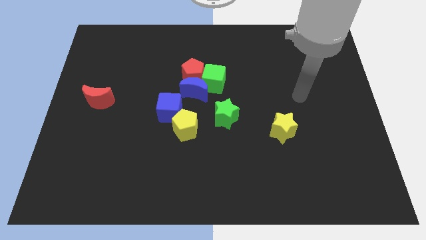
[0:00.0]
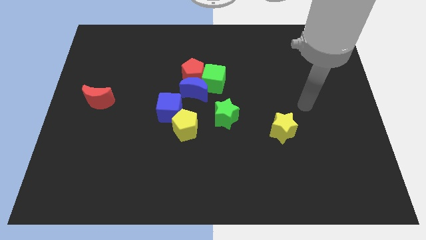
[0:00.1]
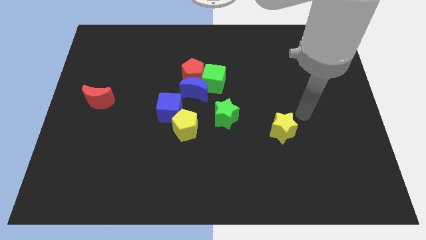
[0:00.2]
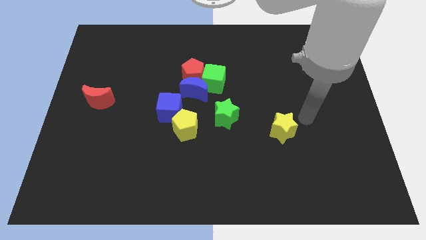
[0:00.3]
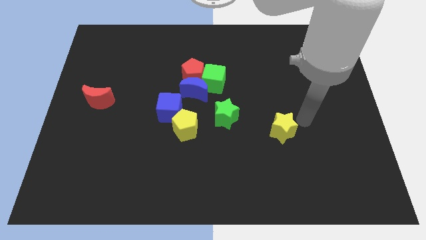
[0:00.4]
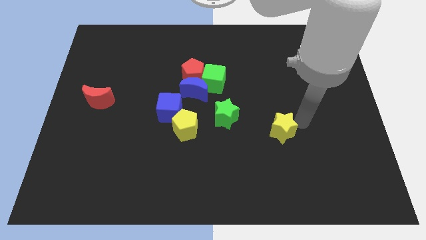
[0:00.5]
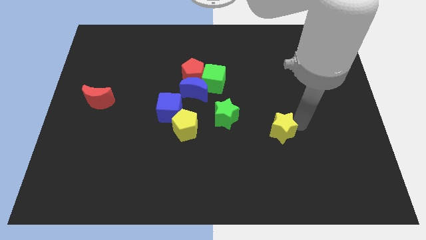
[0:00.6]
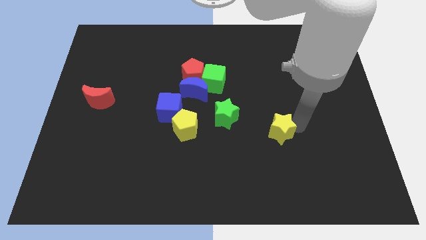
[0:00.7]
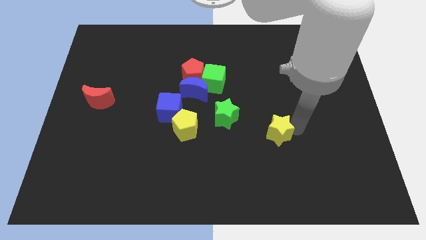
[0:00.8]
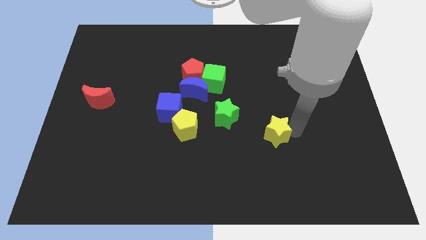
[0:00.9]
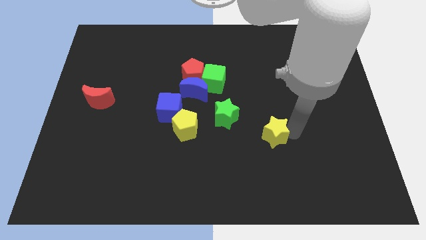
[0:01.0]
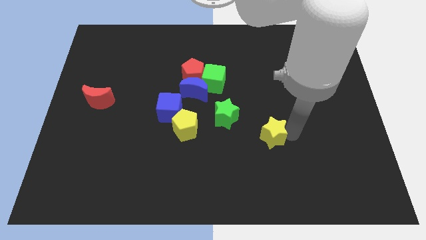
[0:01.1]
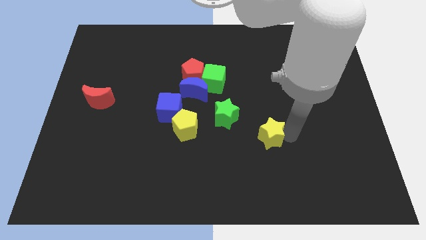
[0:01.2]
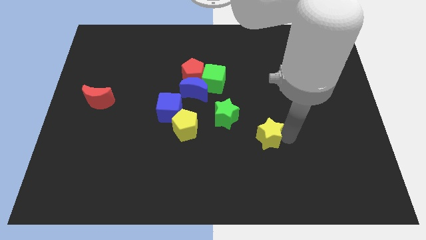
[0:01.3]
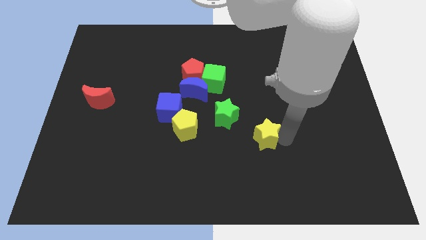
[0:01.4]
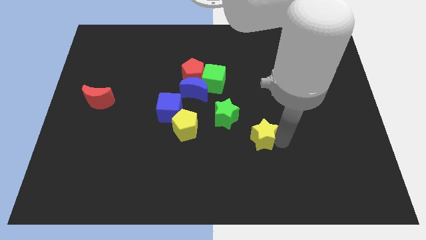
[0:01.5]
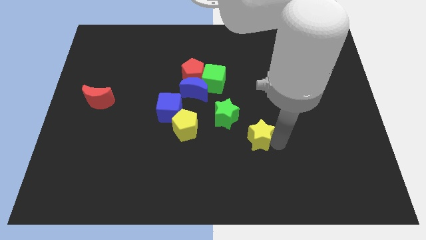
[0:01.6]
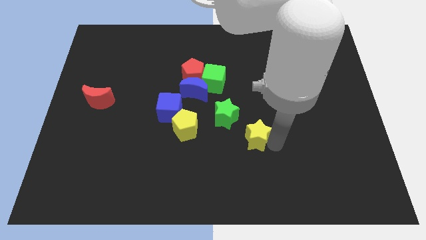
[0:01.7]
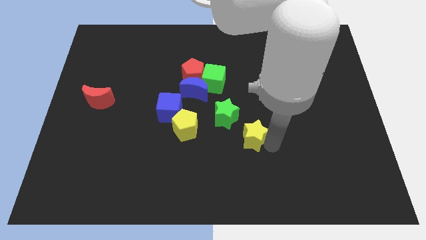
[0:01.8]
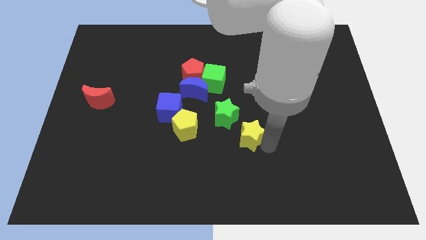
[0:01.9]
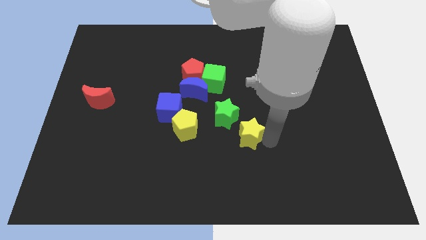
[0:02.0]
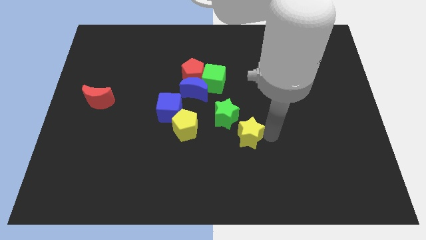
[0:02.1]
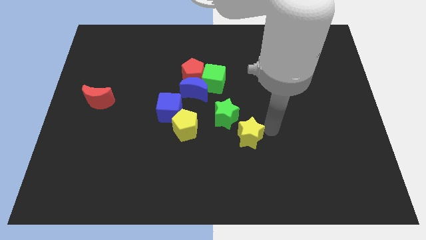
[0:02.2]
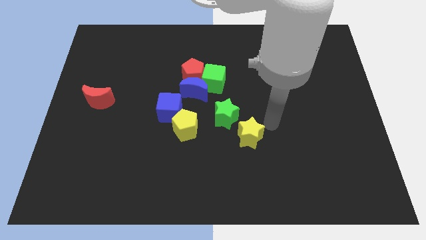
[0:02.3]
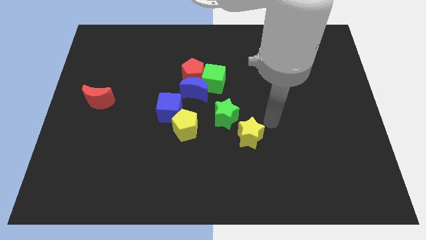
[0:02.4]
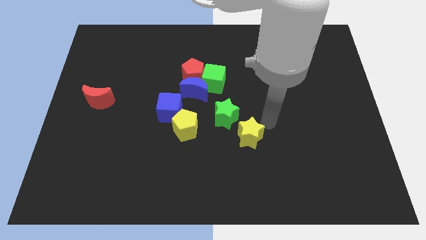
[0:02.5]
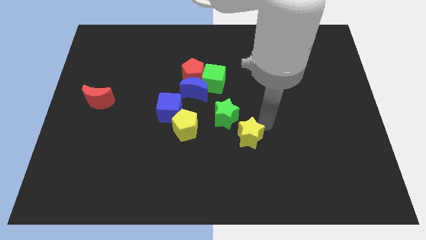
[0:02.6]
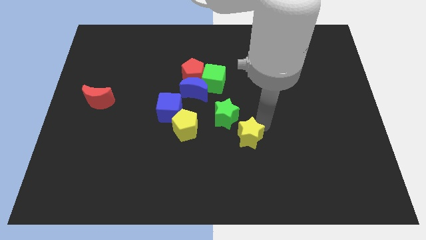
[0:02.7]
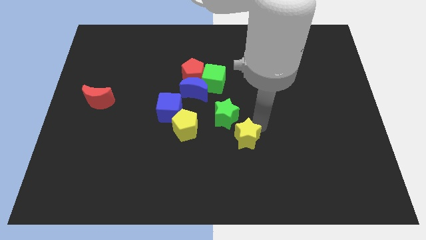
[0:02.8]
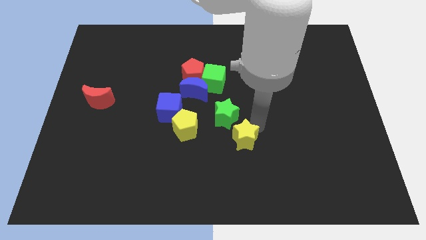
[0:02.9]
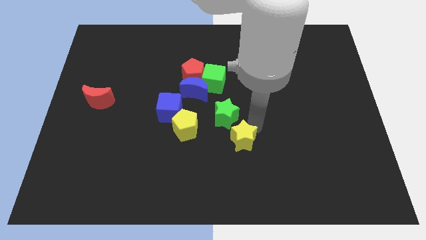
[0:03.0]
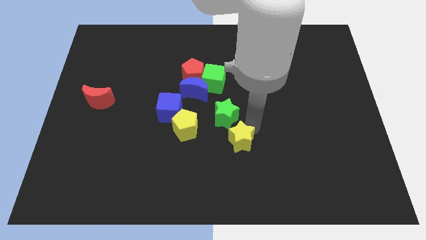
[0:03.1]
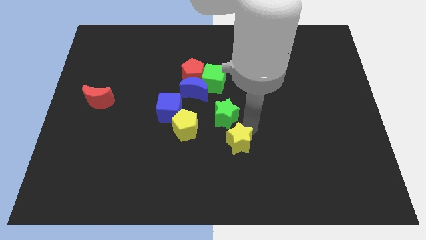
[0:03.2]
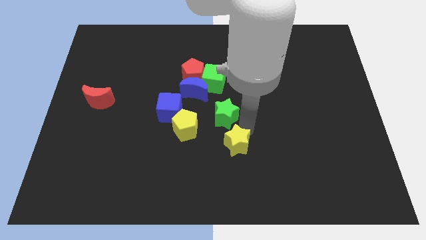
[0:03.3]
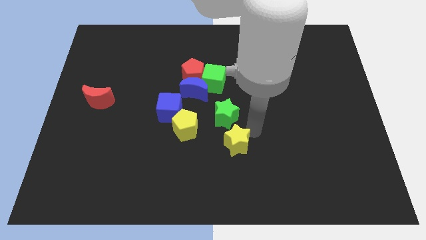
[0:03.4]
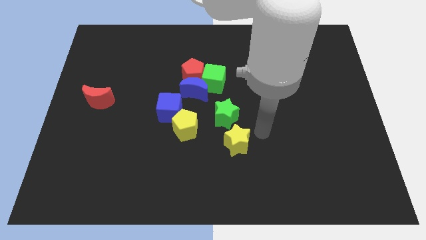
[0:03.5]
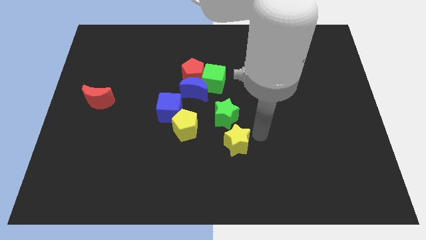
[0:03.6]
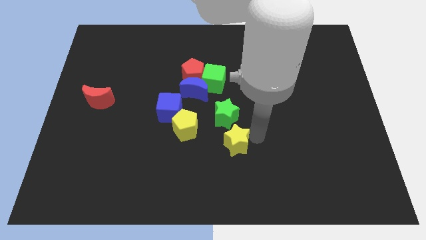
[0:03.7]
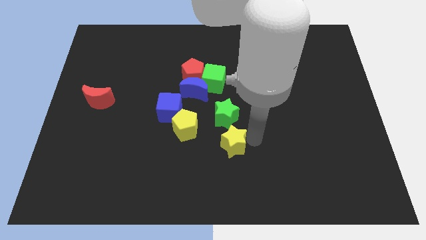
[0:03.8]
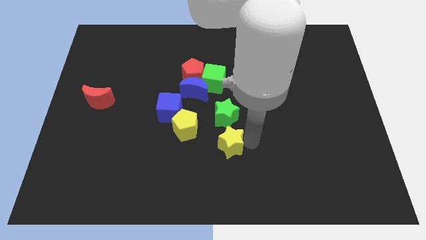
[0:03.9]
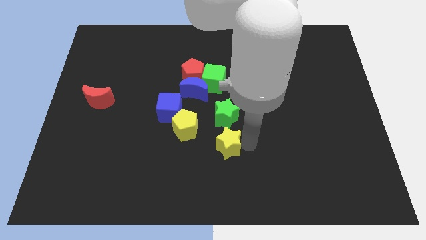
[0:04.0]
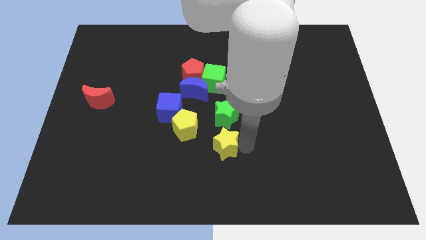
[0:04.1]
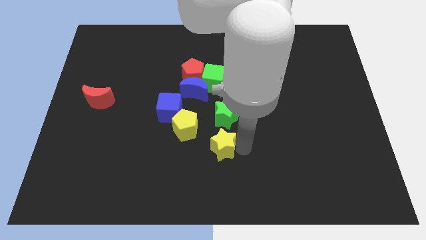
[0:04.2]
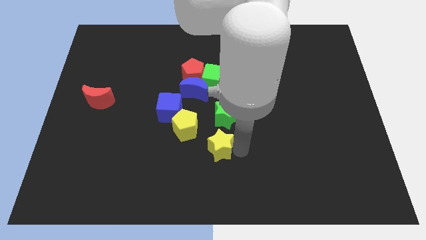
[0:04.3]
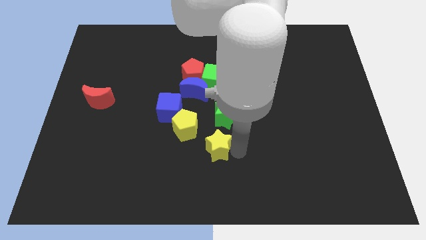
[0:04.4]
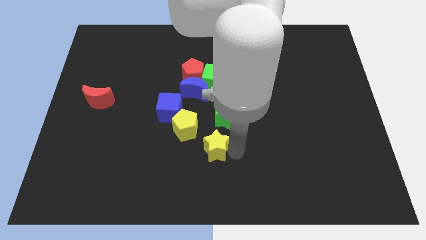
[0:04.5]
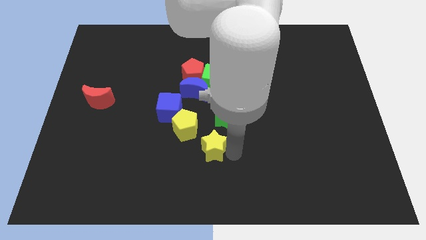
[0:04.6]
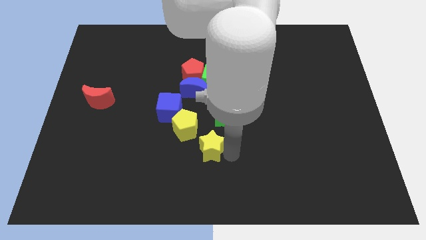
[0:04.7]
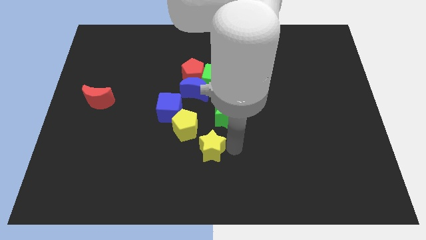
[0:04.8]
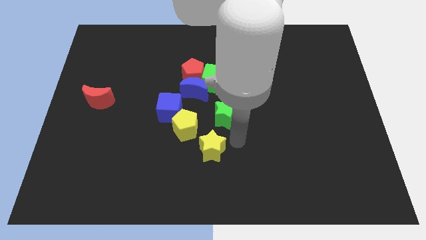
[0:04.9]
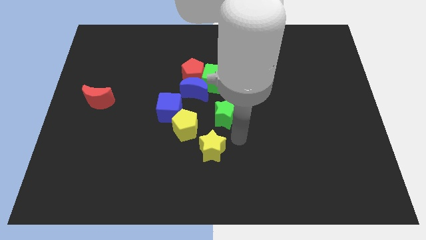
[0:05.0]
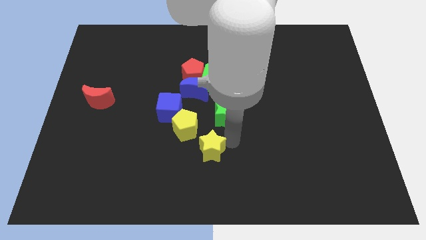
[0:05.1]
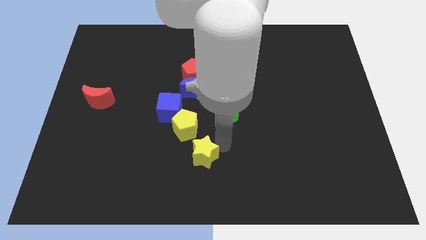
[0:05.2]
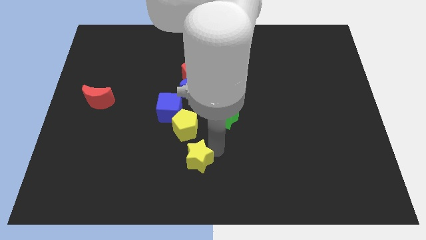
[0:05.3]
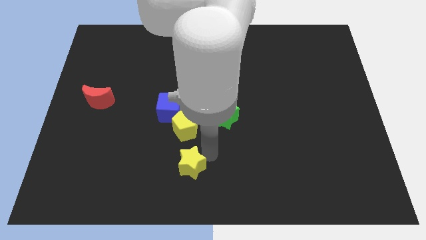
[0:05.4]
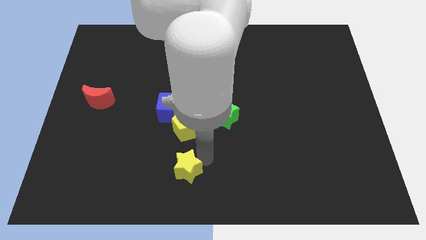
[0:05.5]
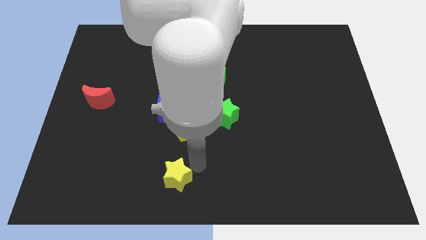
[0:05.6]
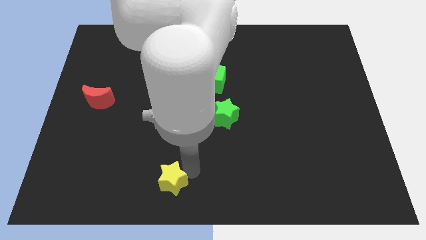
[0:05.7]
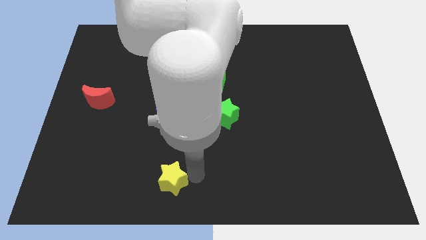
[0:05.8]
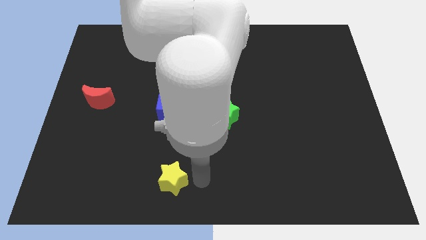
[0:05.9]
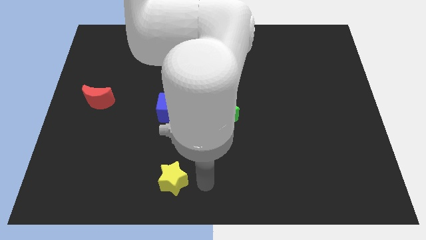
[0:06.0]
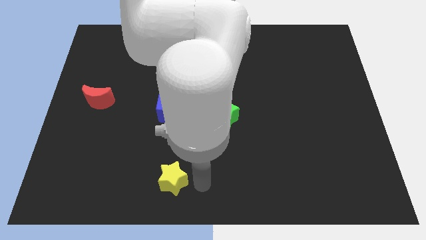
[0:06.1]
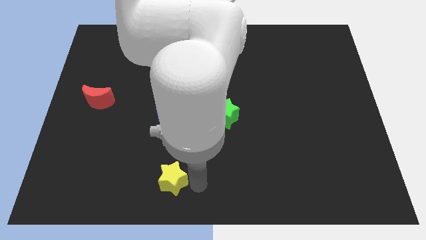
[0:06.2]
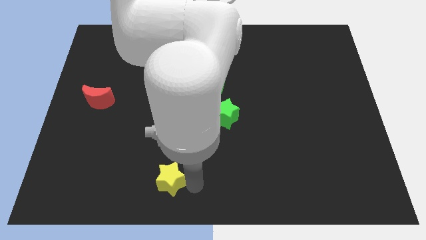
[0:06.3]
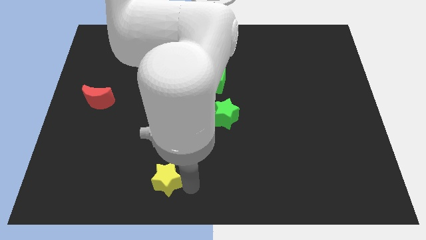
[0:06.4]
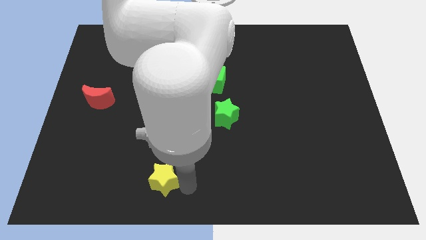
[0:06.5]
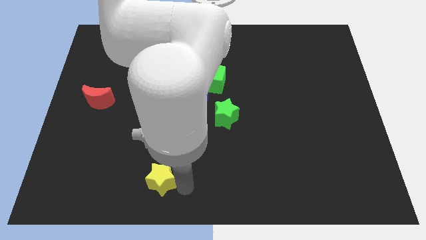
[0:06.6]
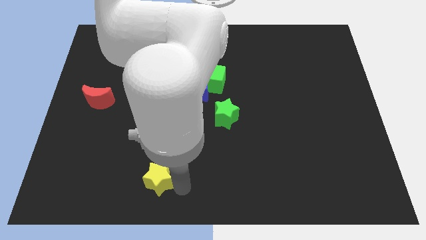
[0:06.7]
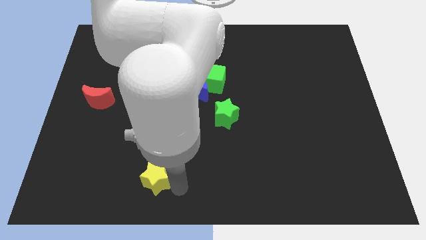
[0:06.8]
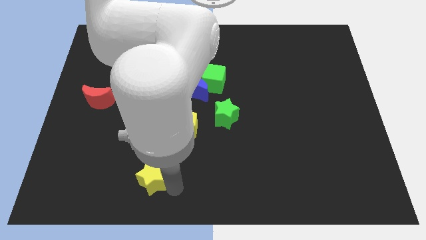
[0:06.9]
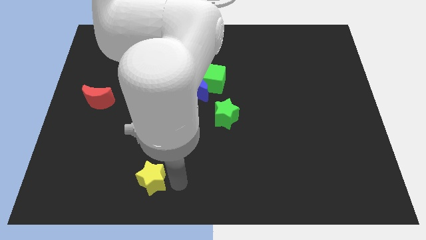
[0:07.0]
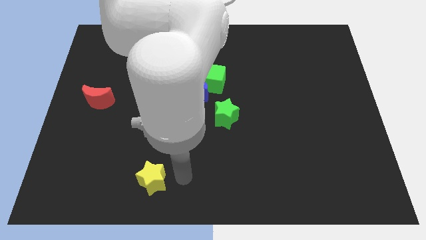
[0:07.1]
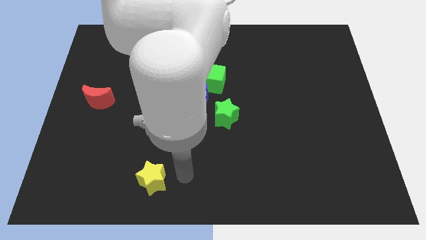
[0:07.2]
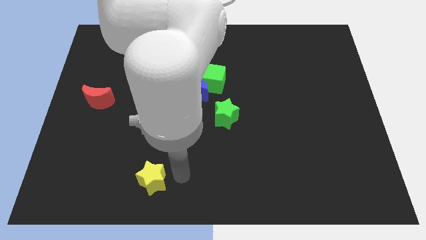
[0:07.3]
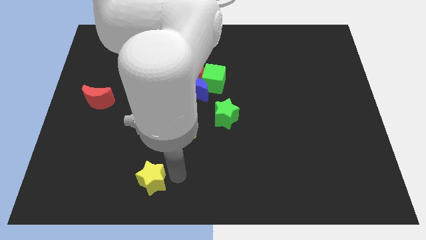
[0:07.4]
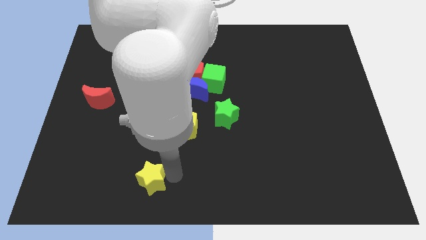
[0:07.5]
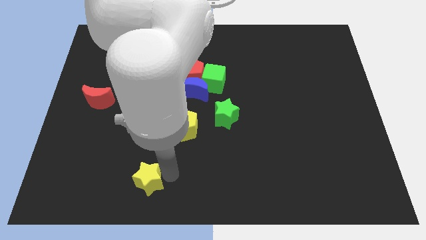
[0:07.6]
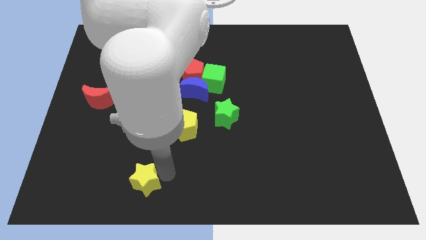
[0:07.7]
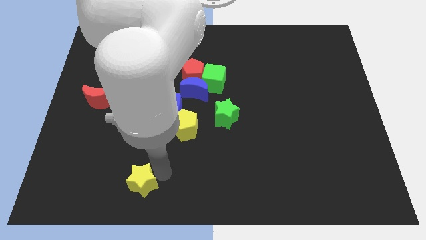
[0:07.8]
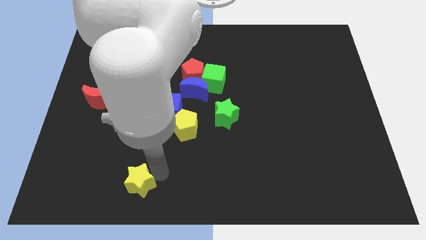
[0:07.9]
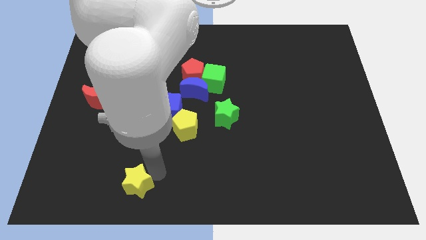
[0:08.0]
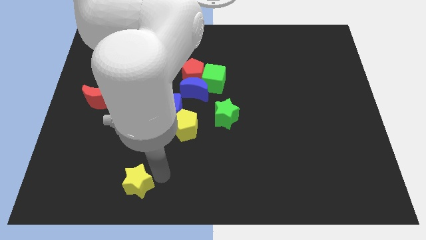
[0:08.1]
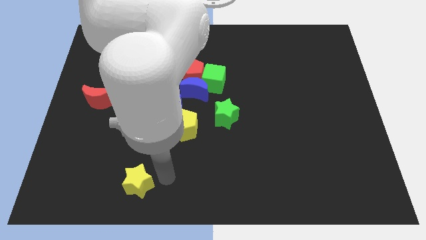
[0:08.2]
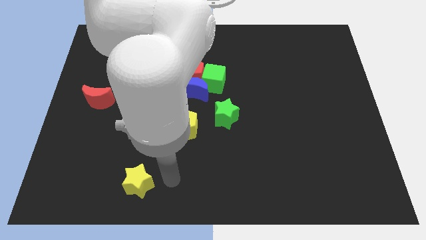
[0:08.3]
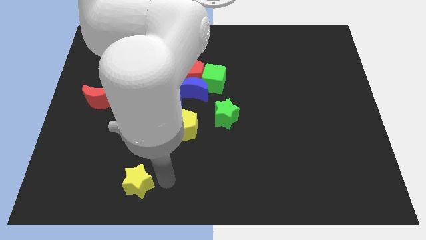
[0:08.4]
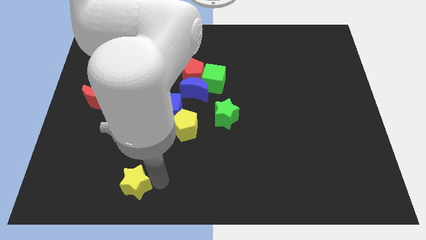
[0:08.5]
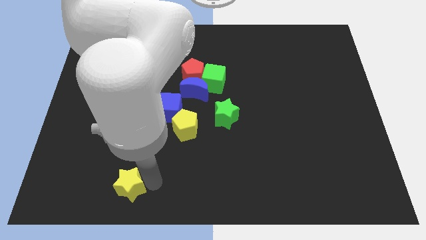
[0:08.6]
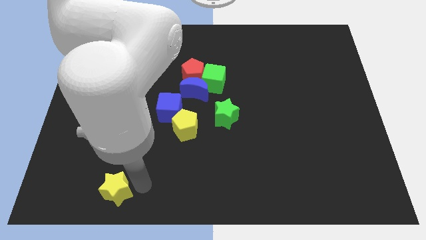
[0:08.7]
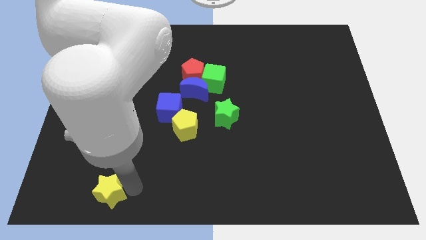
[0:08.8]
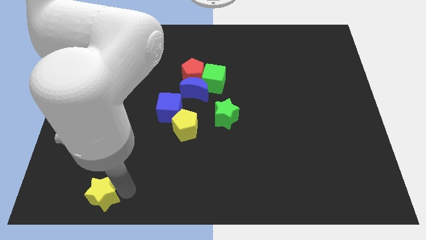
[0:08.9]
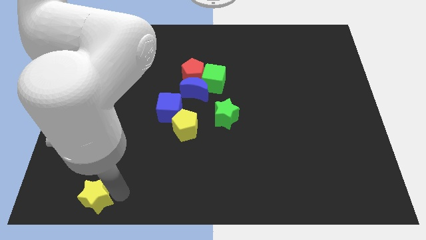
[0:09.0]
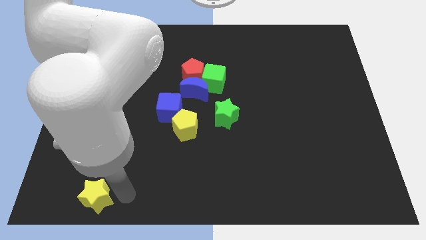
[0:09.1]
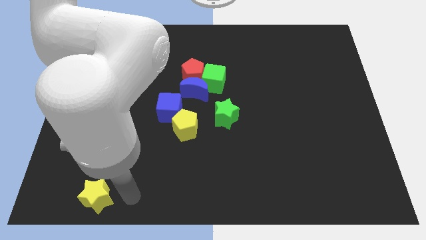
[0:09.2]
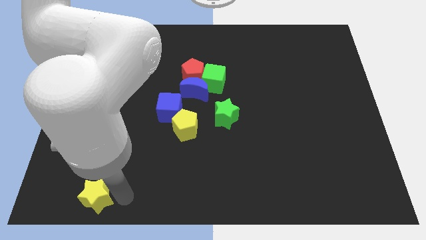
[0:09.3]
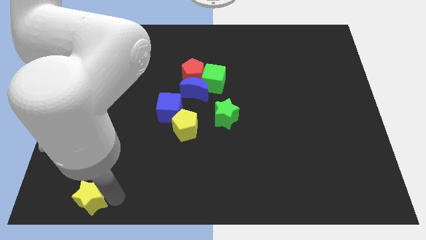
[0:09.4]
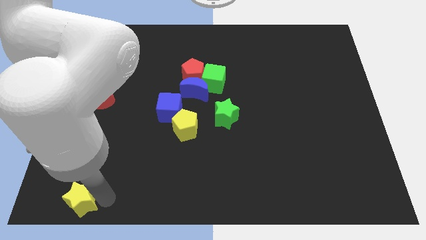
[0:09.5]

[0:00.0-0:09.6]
put the yellow star to the bottom left
